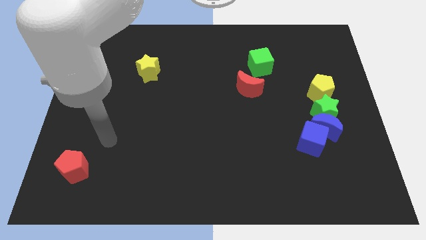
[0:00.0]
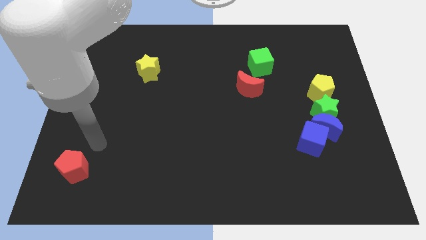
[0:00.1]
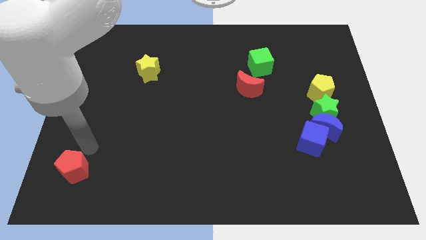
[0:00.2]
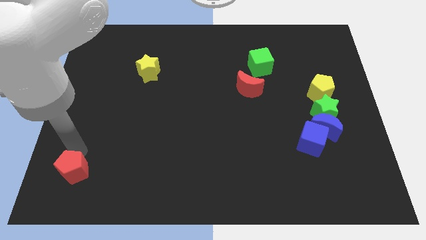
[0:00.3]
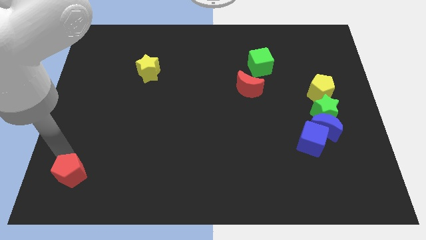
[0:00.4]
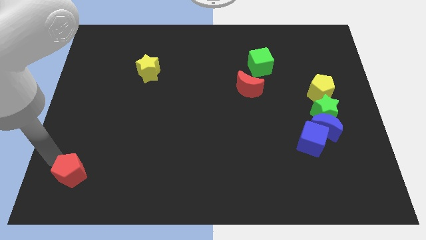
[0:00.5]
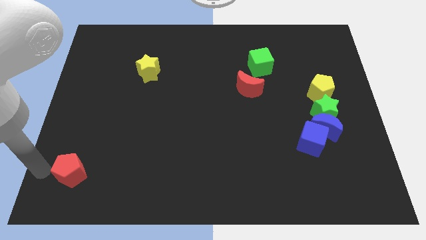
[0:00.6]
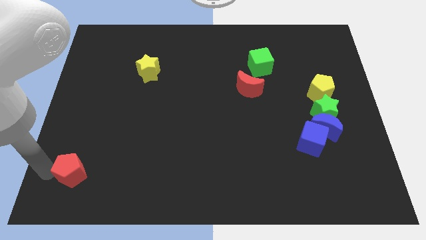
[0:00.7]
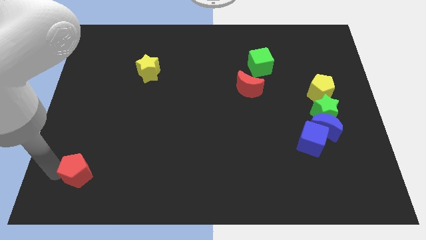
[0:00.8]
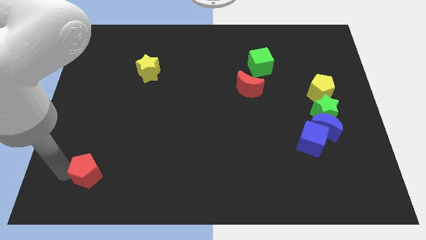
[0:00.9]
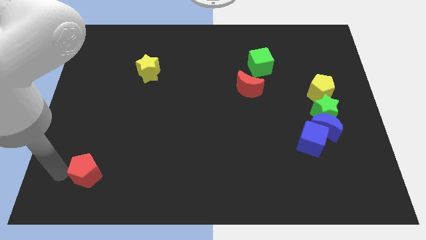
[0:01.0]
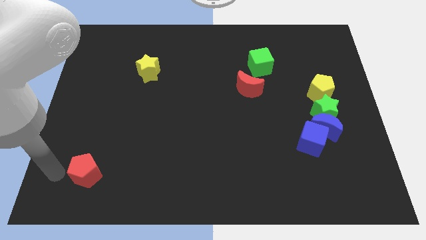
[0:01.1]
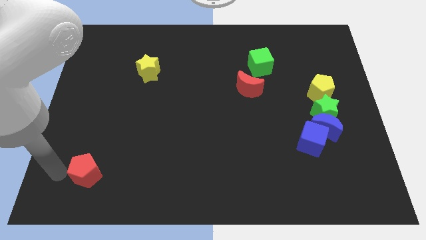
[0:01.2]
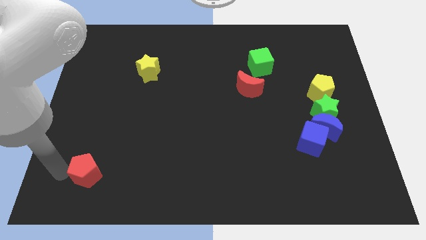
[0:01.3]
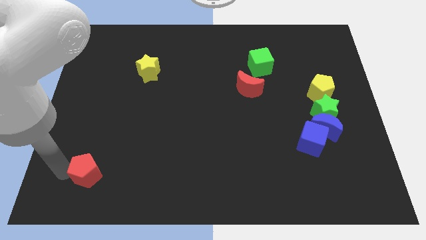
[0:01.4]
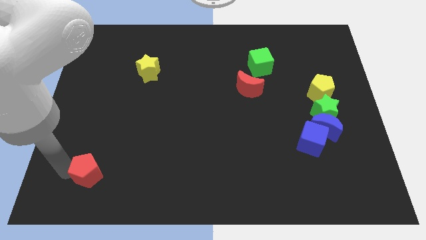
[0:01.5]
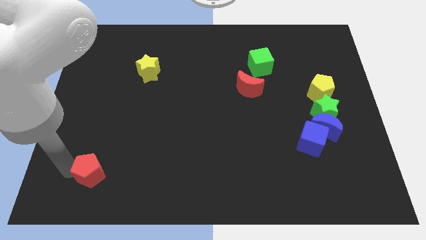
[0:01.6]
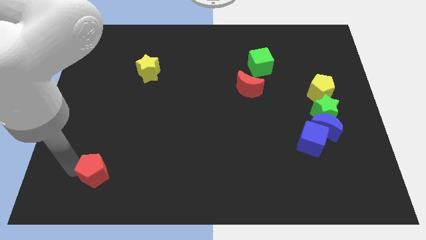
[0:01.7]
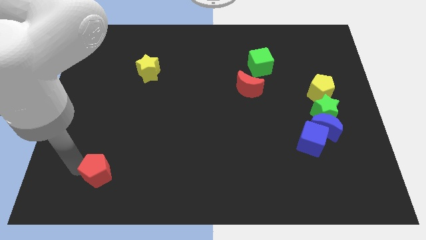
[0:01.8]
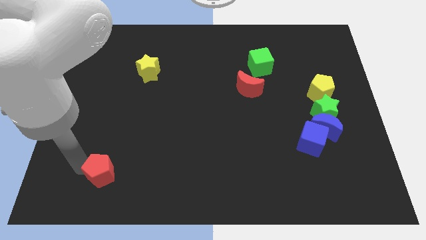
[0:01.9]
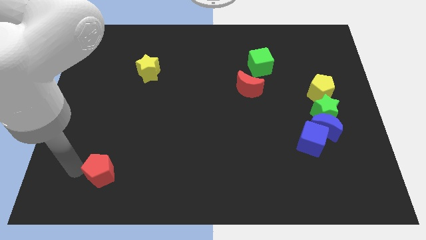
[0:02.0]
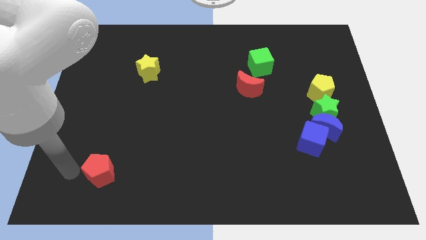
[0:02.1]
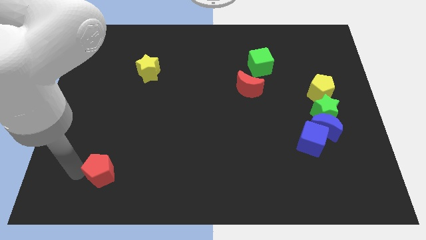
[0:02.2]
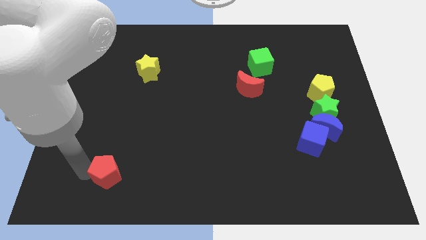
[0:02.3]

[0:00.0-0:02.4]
push the red pentagon a little bit to the right

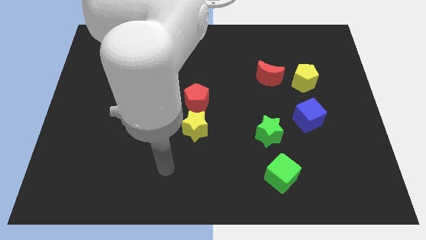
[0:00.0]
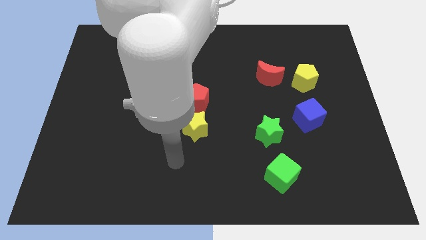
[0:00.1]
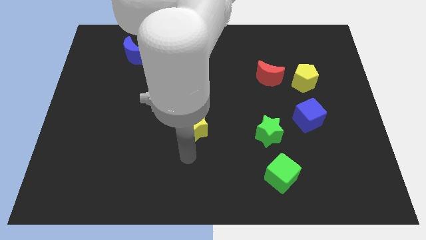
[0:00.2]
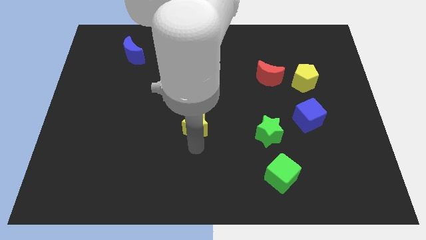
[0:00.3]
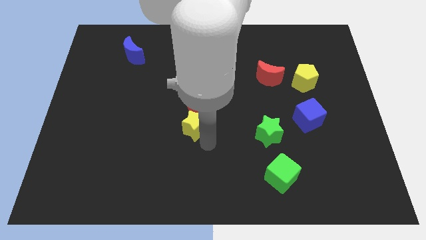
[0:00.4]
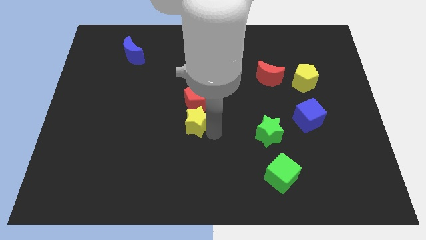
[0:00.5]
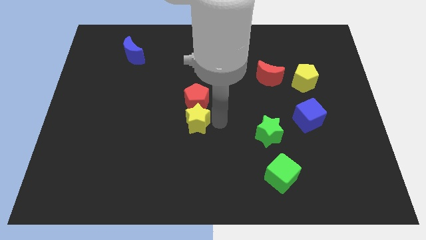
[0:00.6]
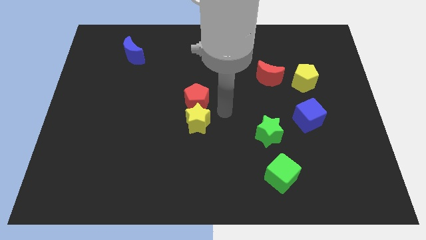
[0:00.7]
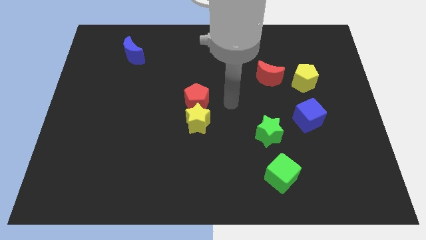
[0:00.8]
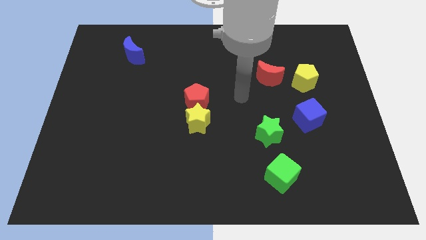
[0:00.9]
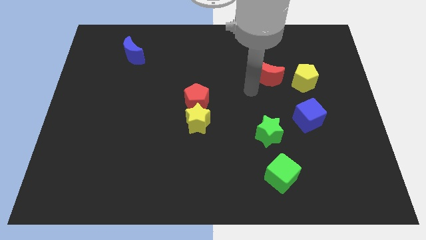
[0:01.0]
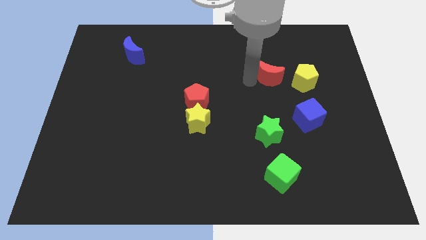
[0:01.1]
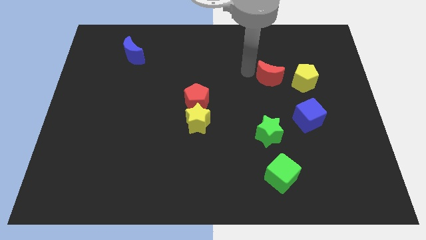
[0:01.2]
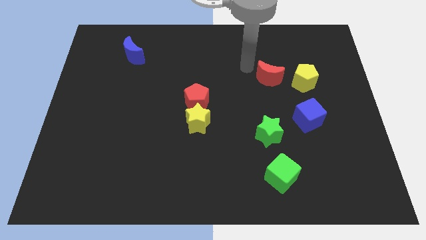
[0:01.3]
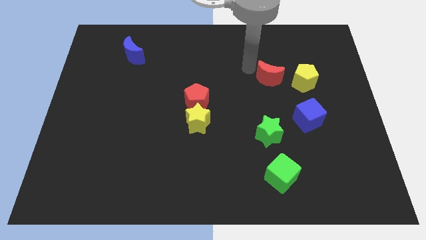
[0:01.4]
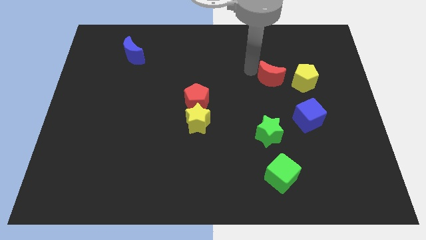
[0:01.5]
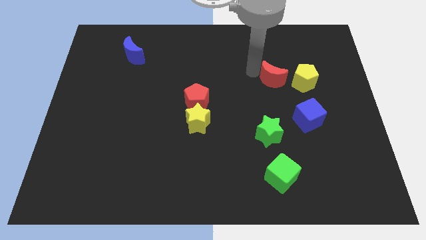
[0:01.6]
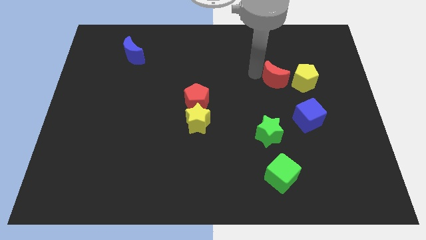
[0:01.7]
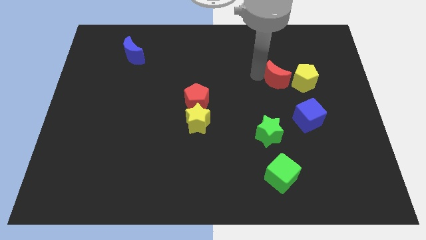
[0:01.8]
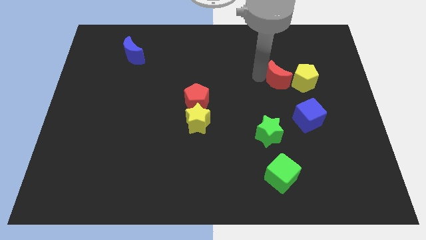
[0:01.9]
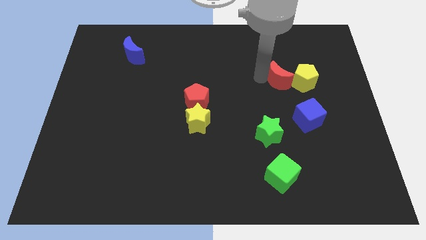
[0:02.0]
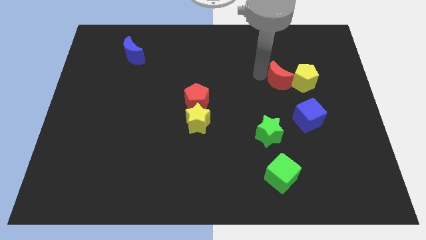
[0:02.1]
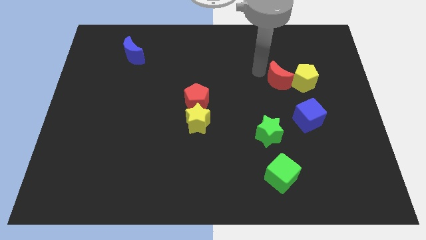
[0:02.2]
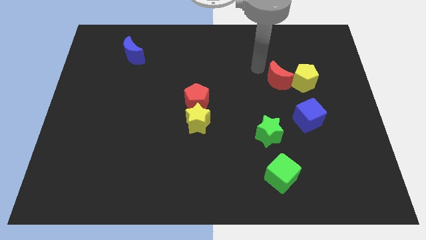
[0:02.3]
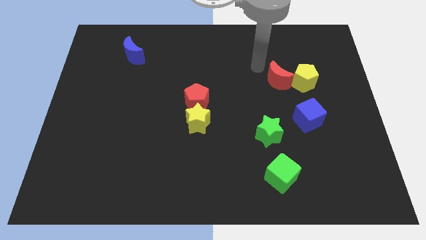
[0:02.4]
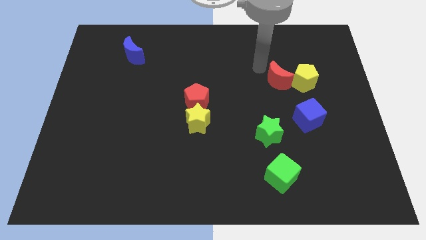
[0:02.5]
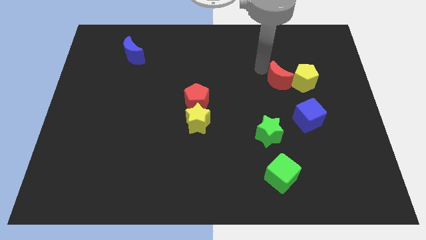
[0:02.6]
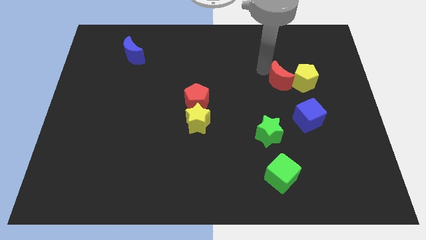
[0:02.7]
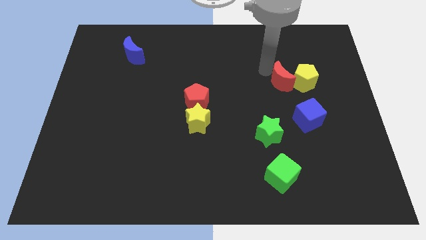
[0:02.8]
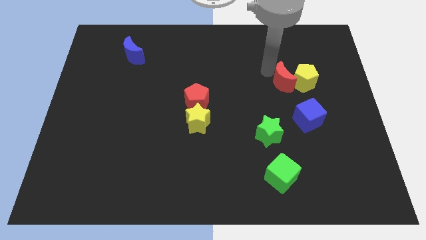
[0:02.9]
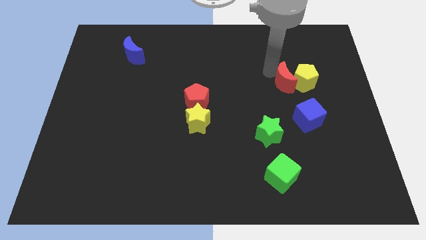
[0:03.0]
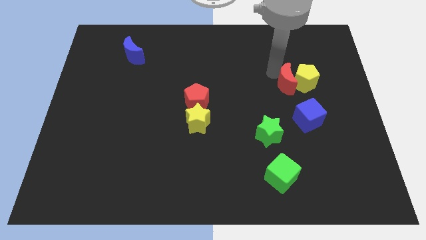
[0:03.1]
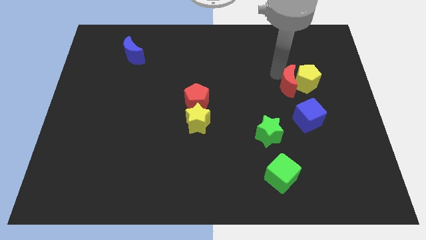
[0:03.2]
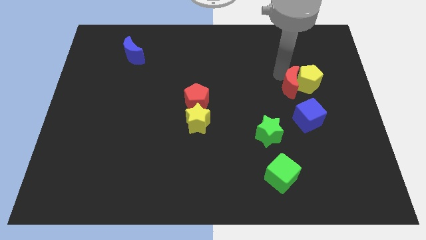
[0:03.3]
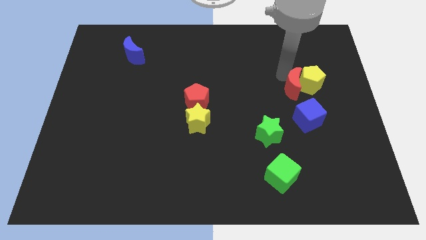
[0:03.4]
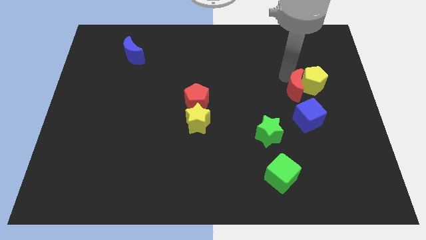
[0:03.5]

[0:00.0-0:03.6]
move the red moon diagonally downwards and right somewhat

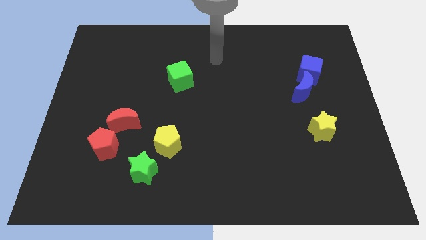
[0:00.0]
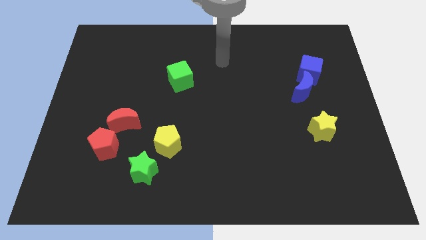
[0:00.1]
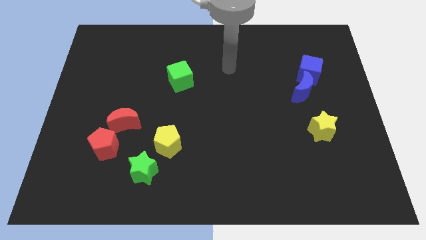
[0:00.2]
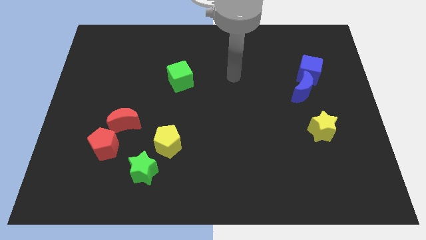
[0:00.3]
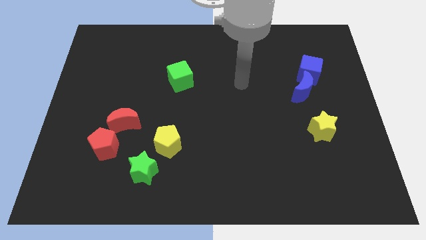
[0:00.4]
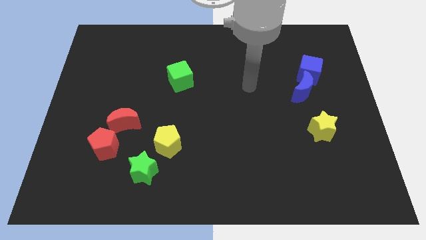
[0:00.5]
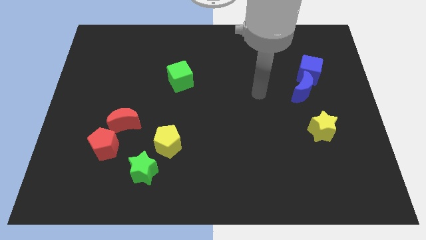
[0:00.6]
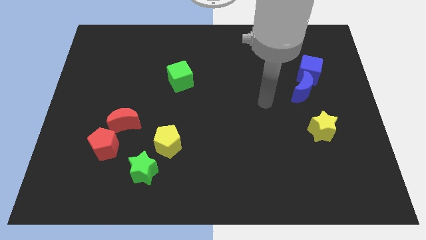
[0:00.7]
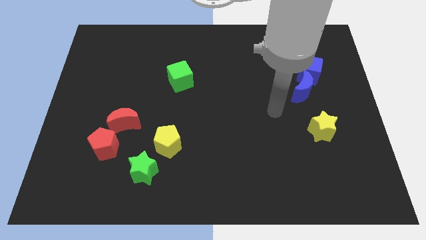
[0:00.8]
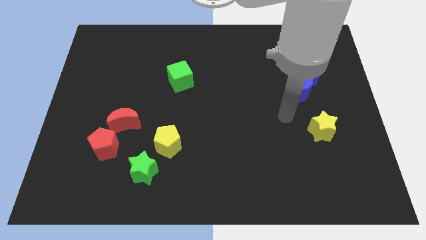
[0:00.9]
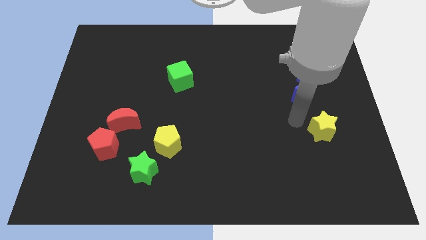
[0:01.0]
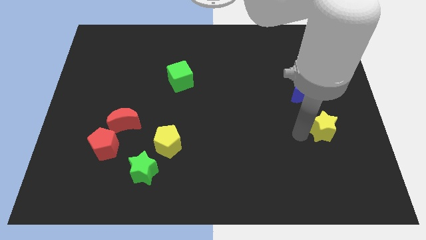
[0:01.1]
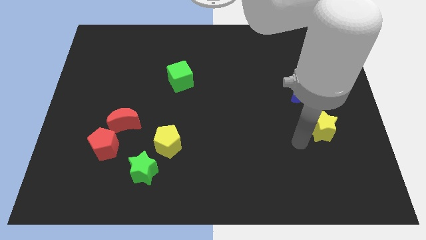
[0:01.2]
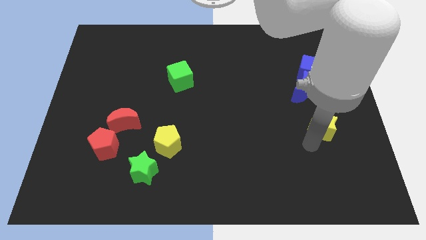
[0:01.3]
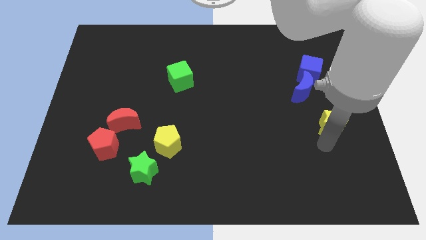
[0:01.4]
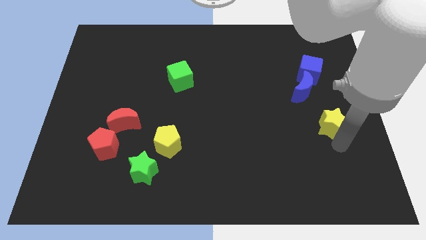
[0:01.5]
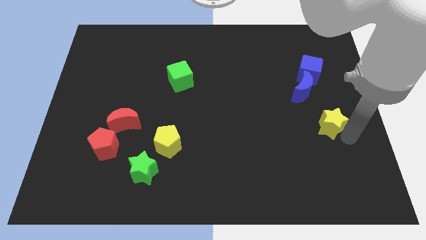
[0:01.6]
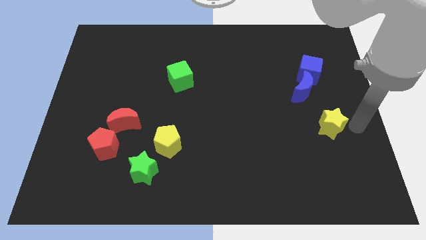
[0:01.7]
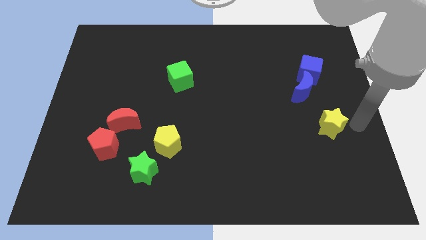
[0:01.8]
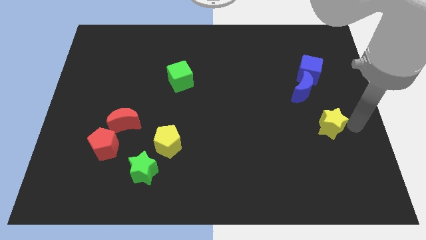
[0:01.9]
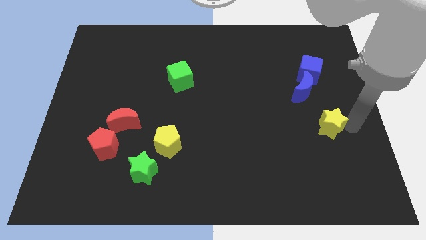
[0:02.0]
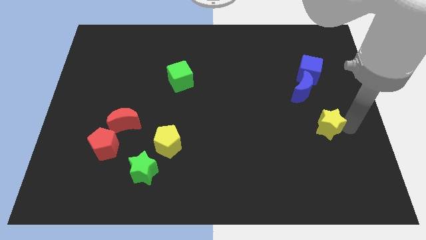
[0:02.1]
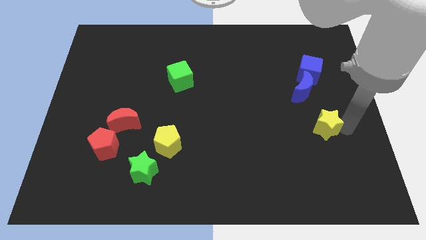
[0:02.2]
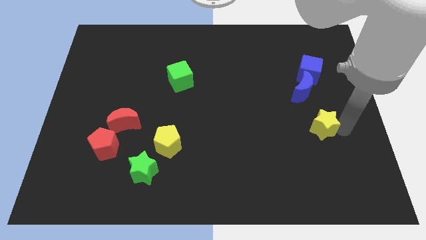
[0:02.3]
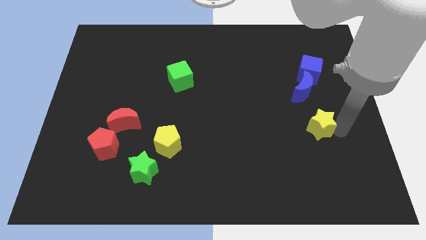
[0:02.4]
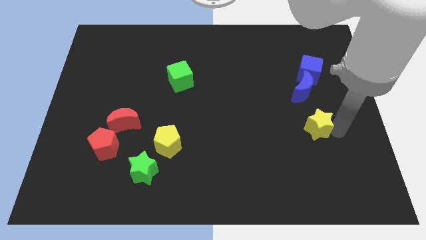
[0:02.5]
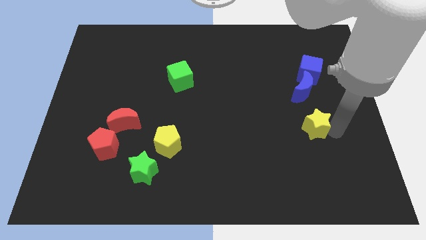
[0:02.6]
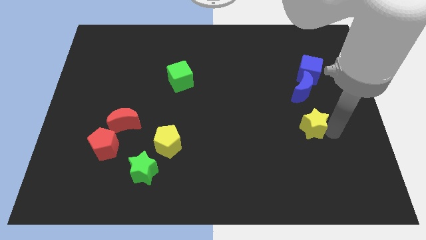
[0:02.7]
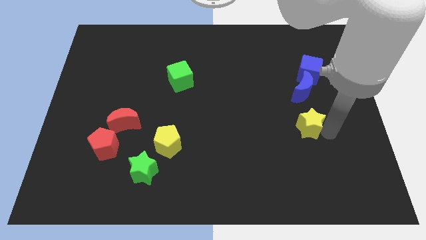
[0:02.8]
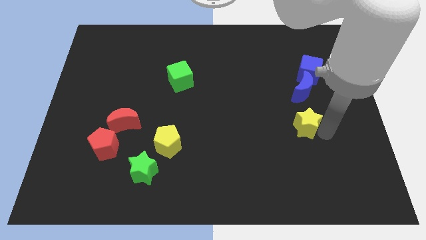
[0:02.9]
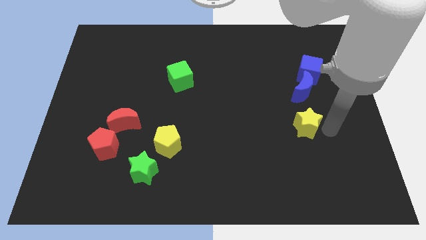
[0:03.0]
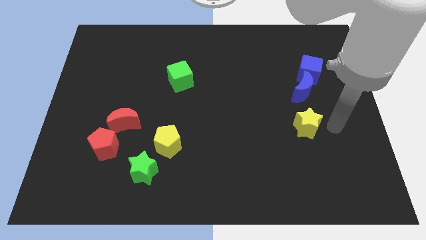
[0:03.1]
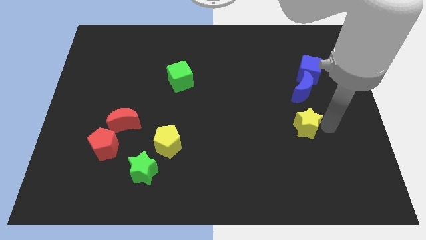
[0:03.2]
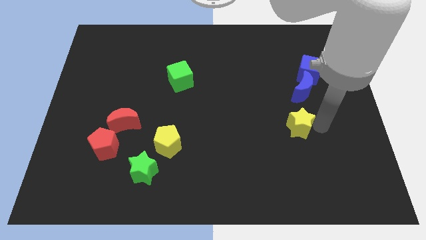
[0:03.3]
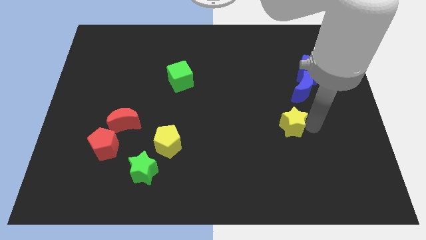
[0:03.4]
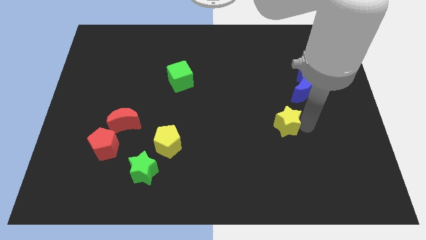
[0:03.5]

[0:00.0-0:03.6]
slightly move the yellow star left
